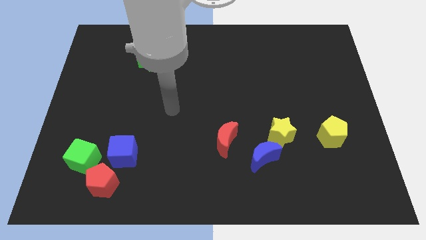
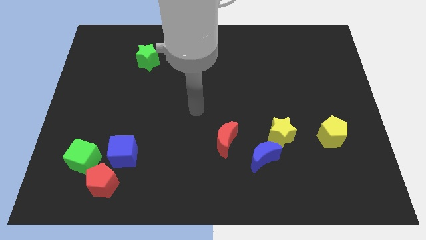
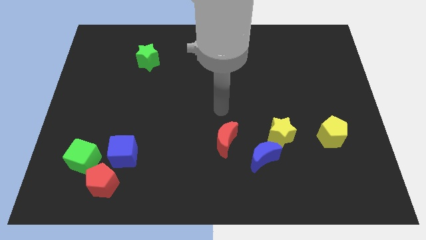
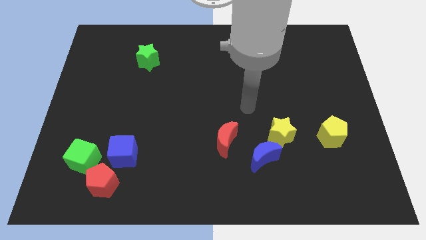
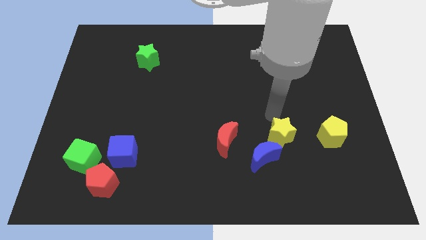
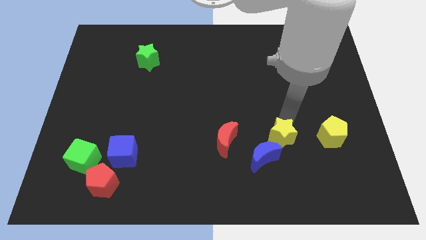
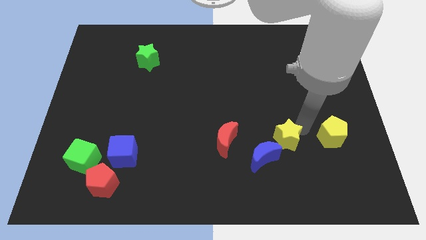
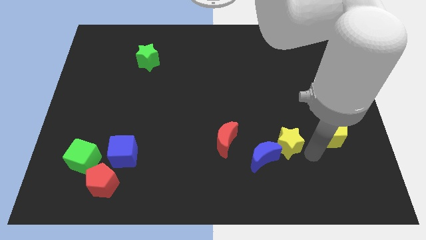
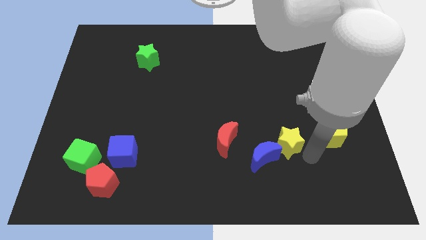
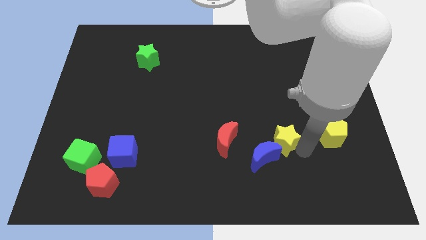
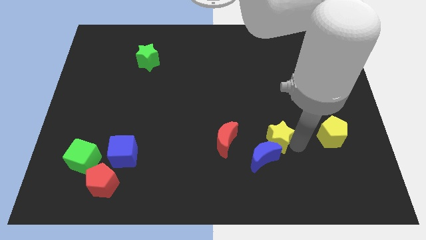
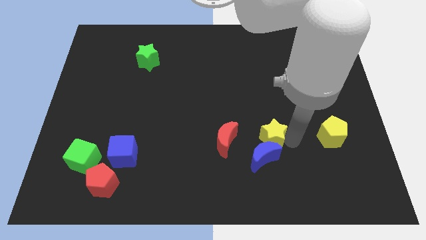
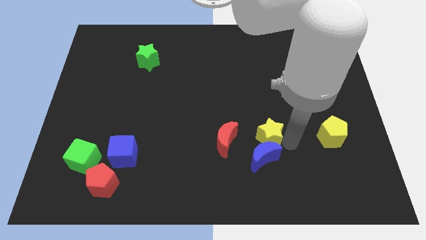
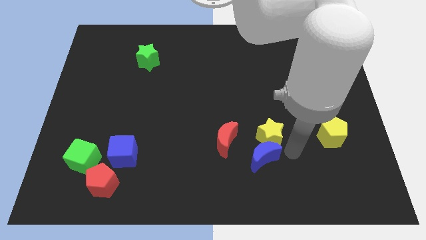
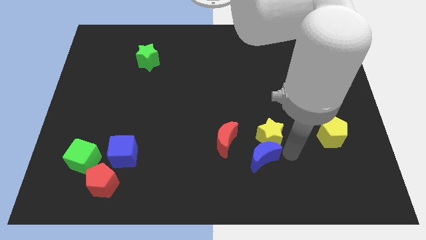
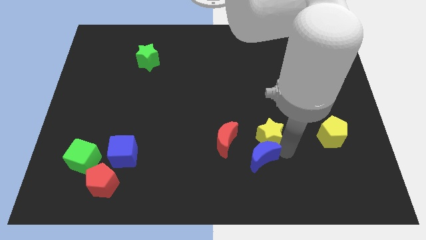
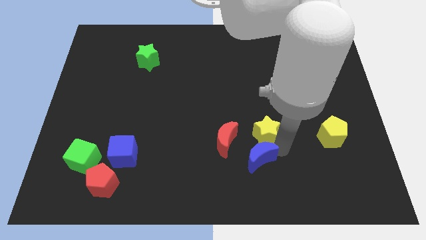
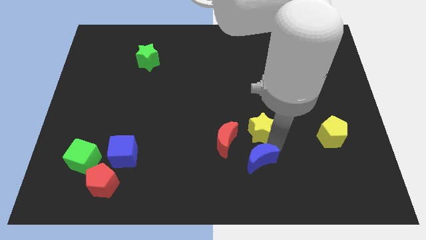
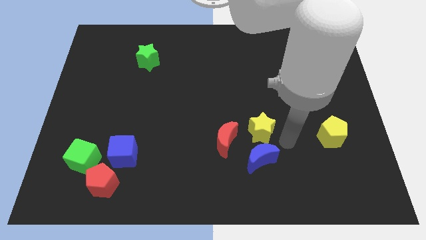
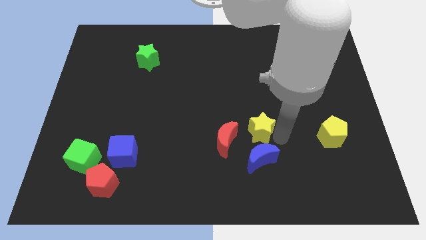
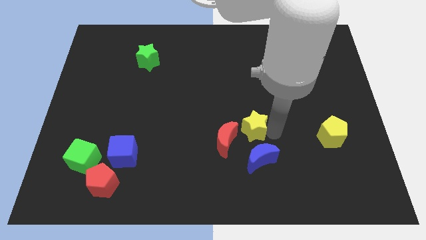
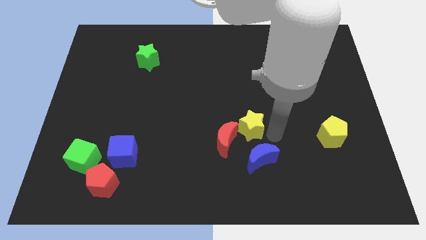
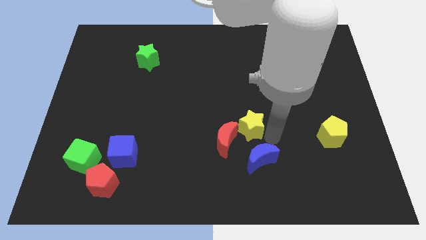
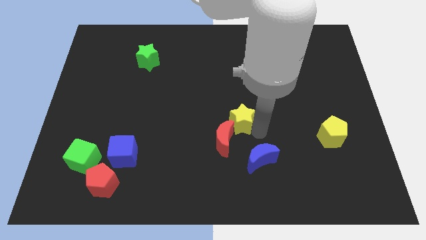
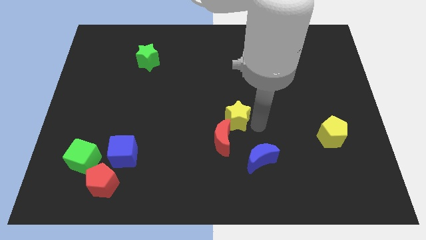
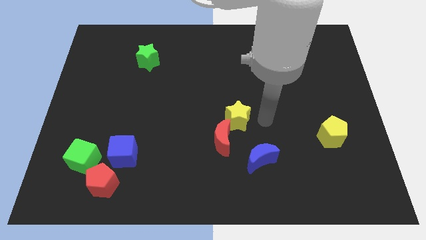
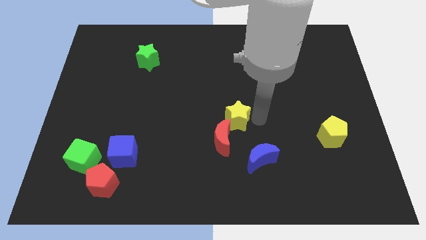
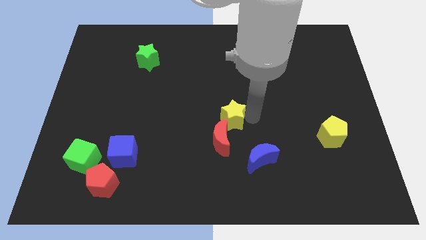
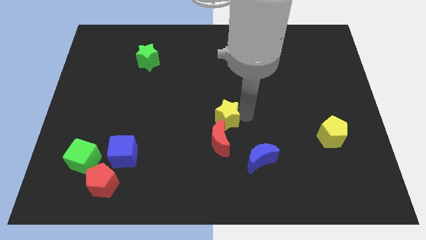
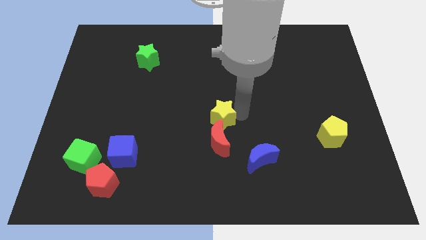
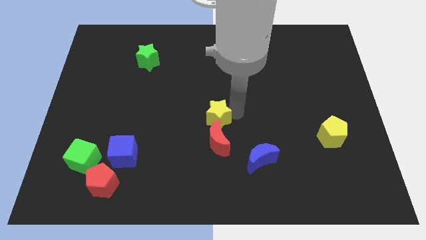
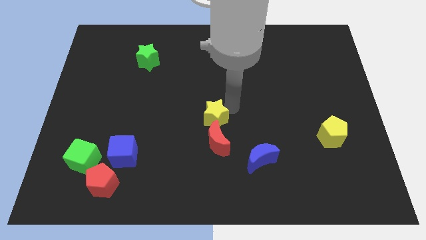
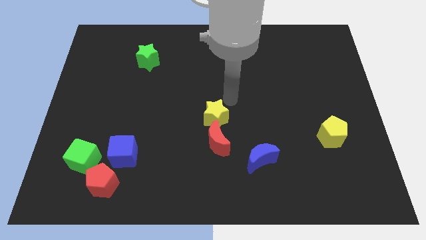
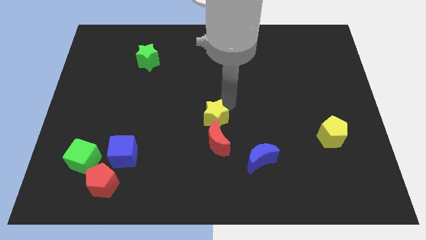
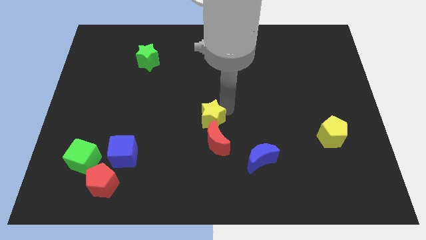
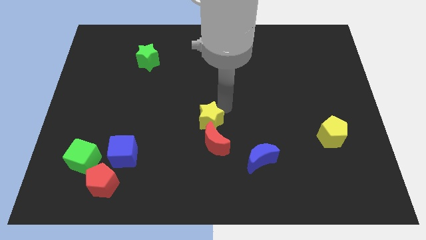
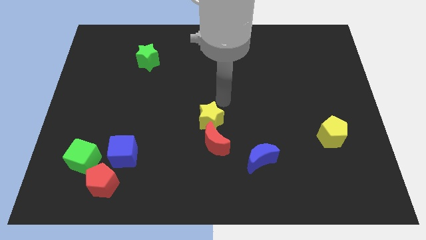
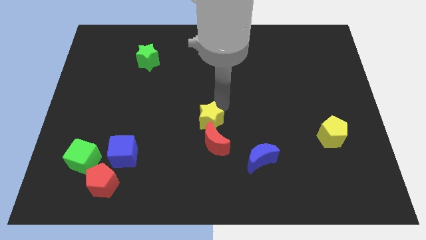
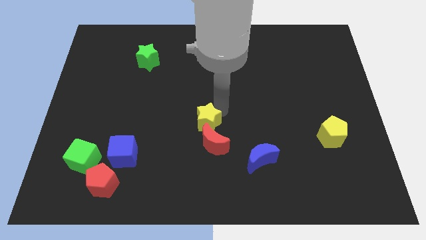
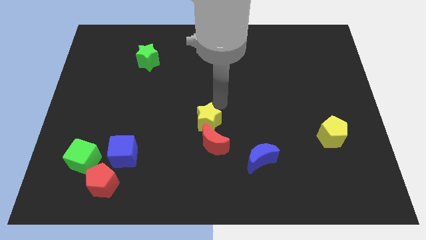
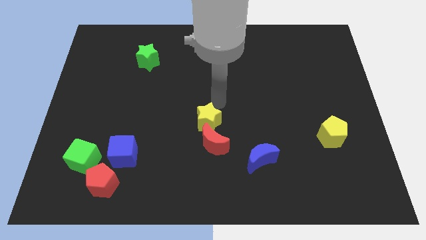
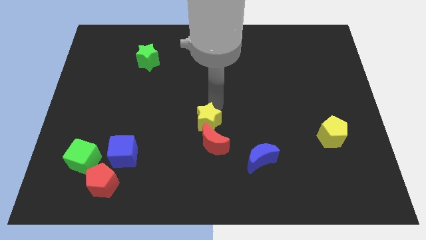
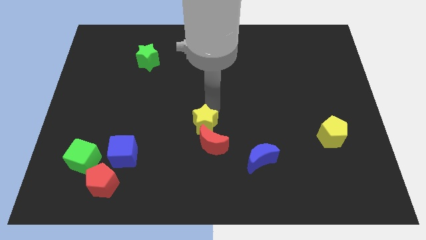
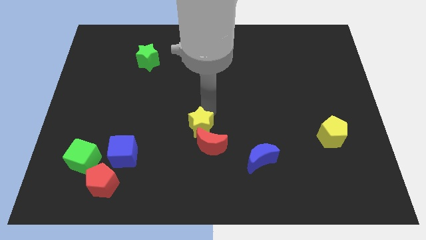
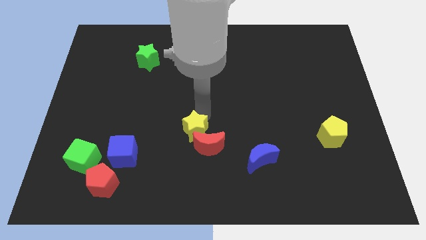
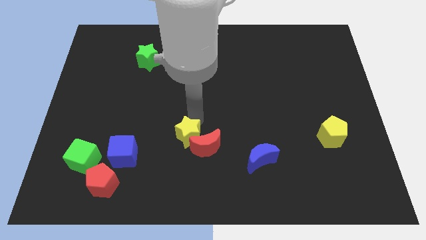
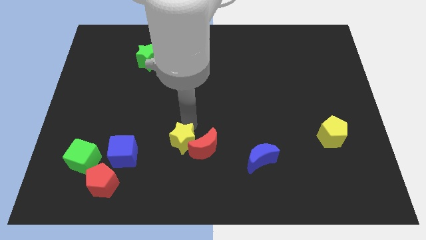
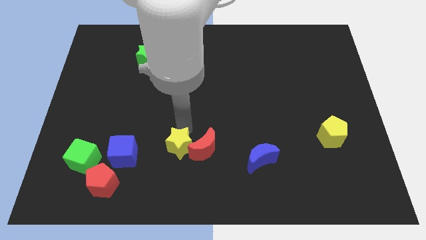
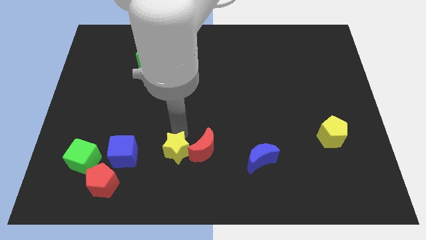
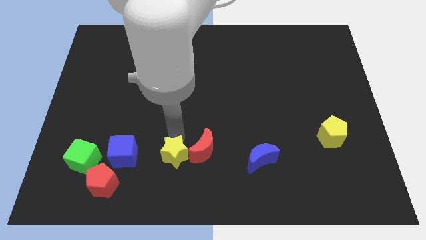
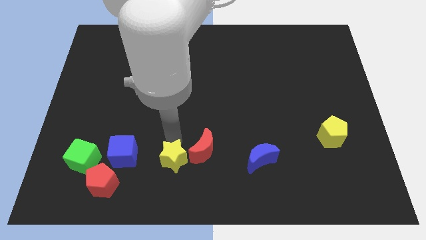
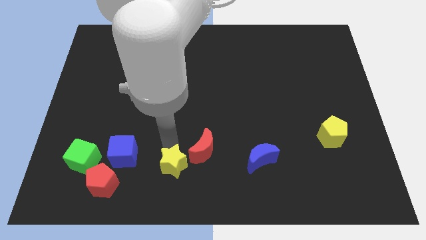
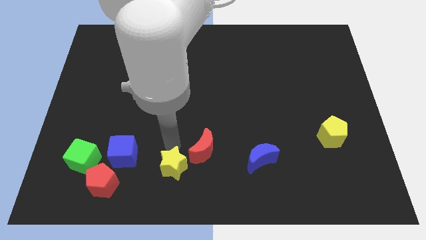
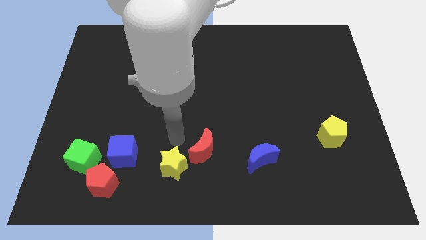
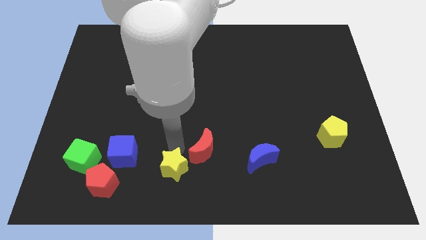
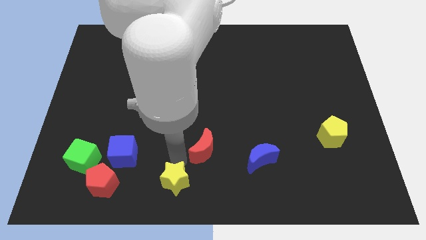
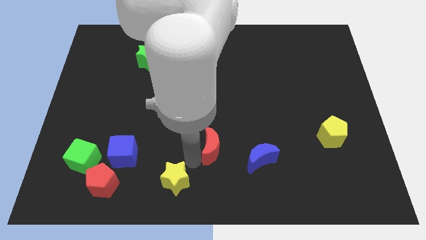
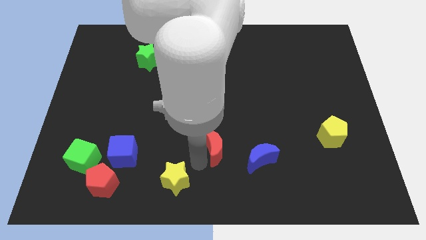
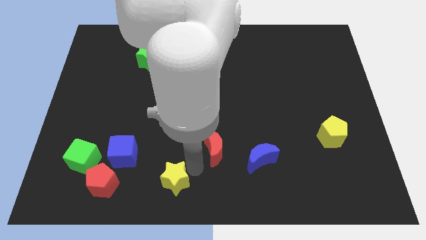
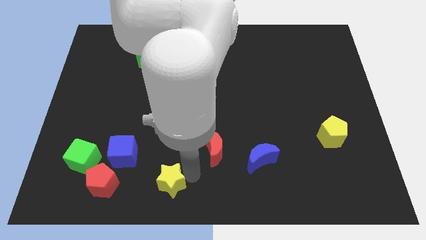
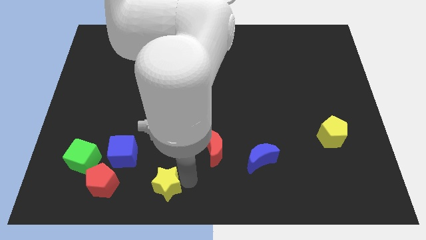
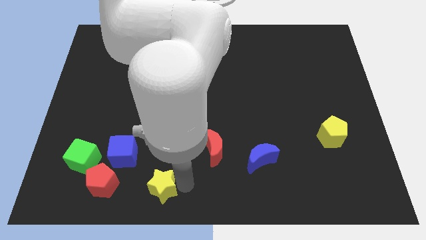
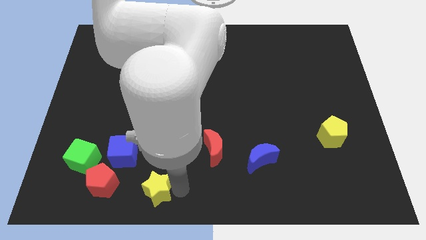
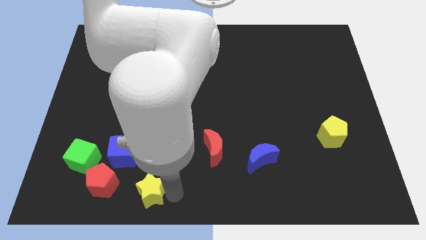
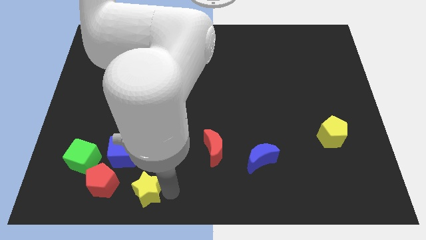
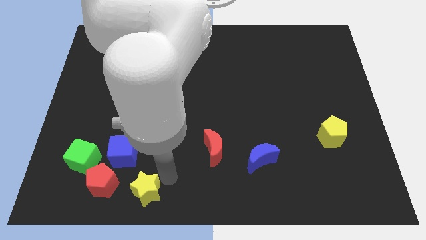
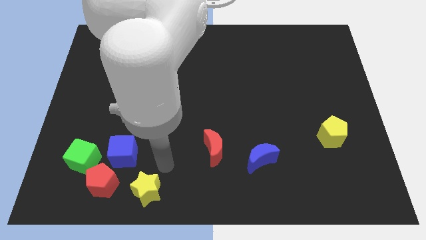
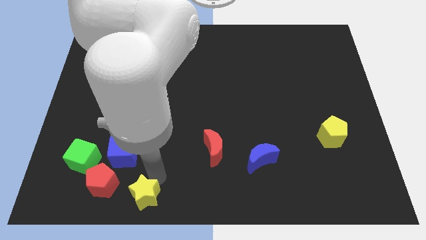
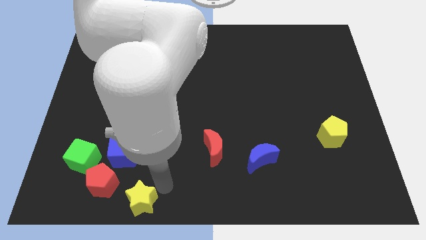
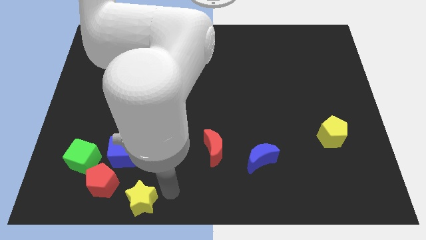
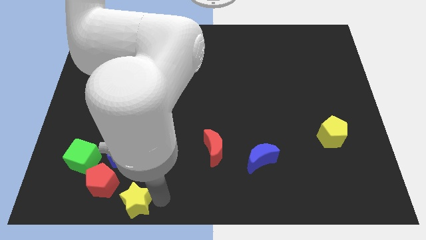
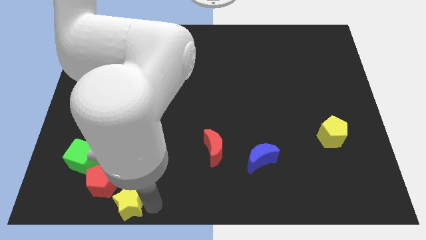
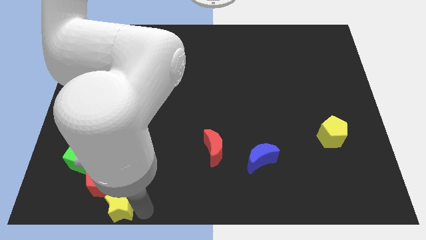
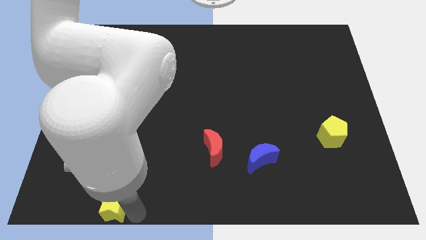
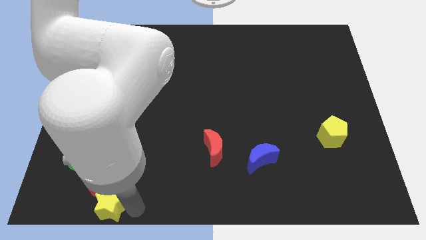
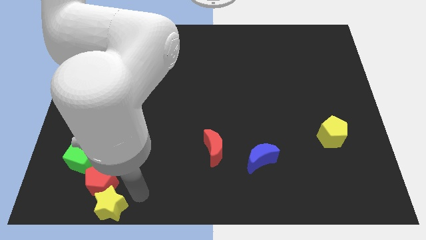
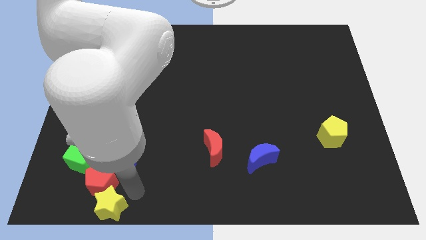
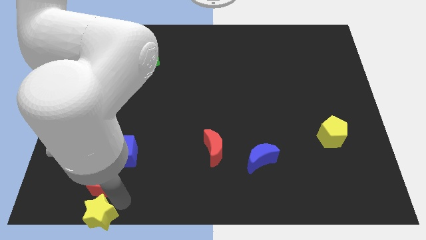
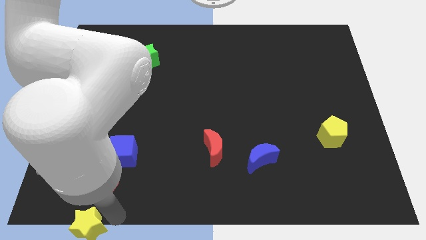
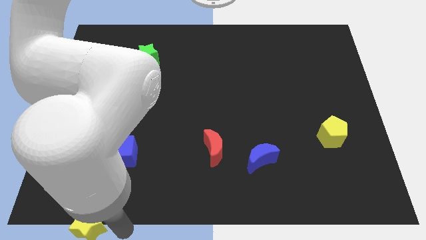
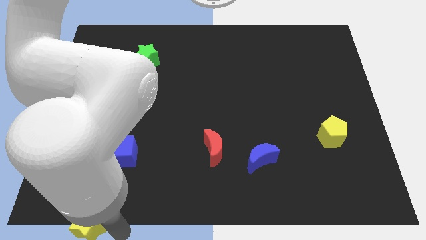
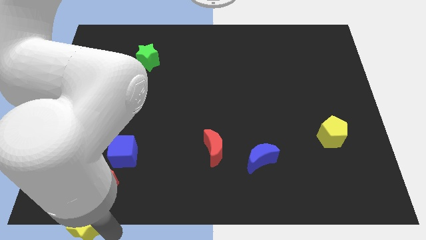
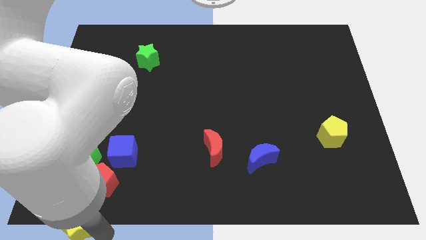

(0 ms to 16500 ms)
slide the yellow star to the lower left corner
